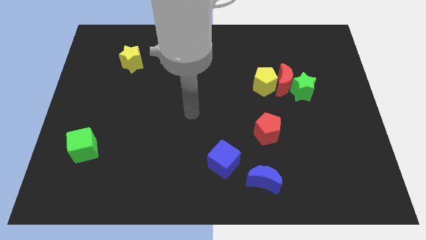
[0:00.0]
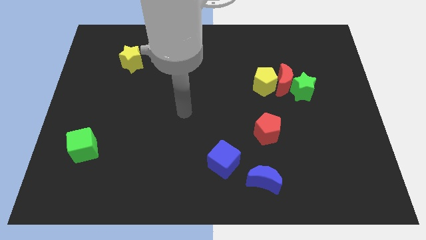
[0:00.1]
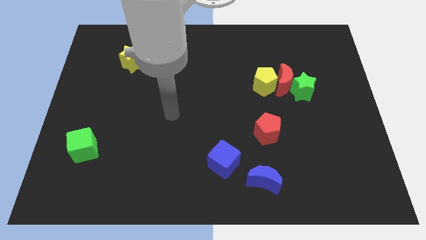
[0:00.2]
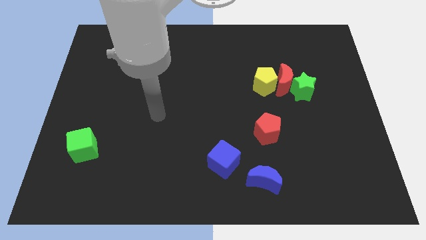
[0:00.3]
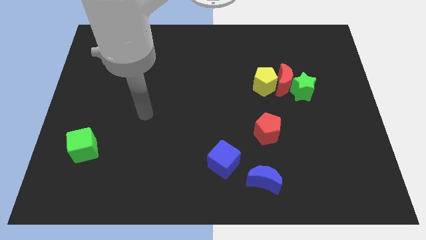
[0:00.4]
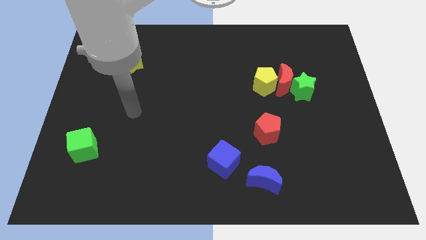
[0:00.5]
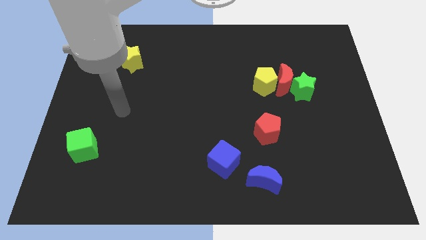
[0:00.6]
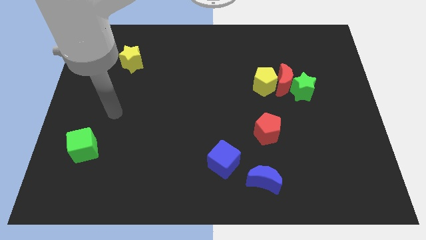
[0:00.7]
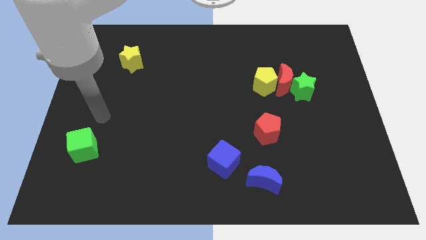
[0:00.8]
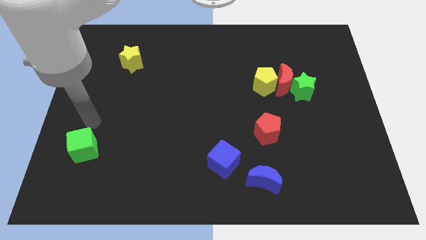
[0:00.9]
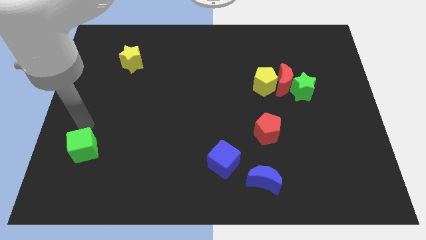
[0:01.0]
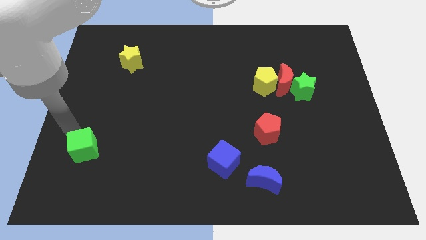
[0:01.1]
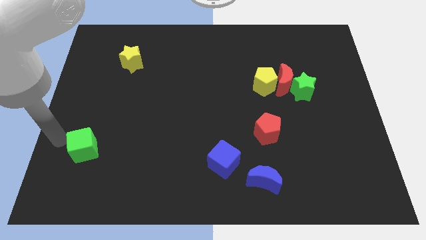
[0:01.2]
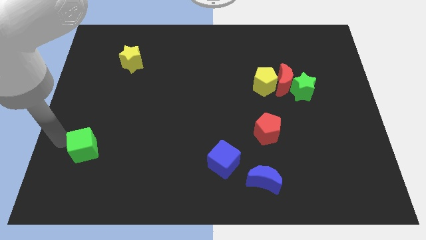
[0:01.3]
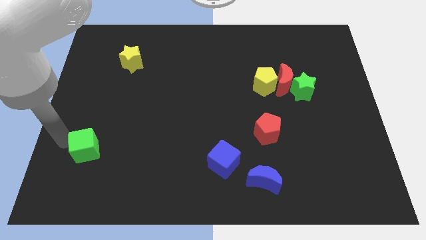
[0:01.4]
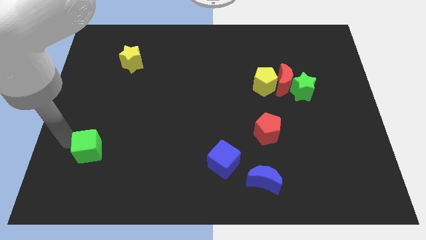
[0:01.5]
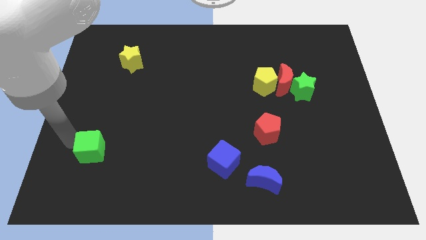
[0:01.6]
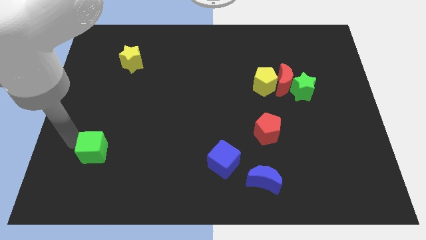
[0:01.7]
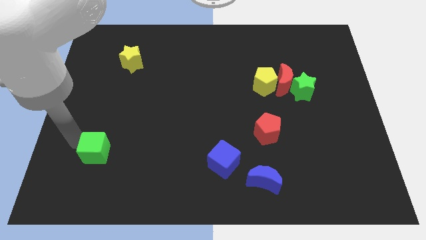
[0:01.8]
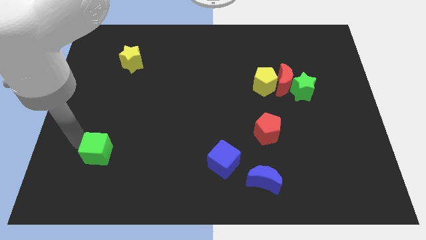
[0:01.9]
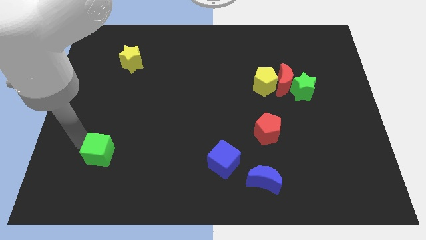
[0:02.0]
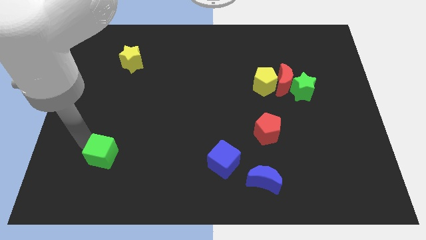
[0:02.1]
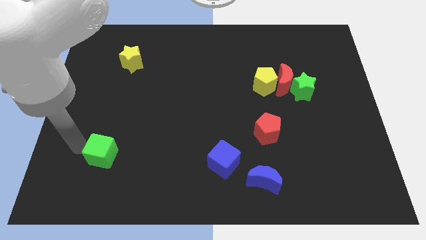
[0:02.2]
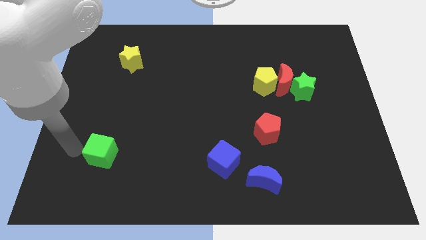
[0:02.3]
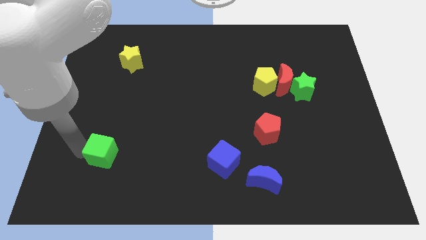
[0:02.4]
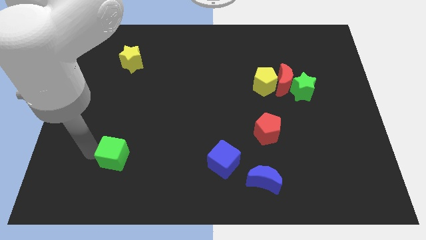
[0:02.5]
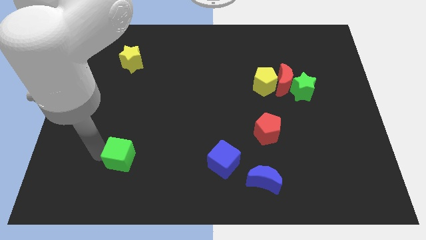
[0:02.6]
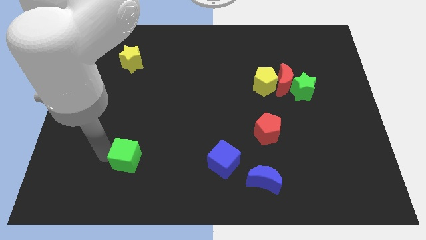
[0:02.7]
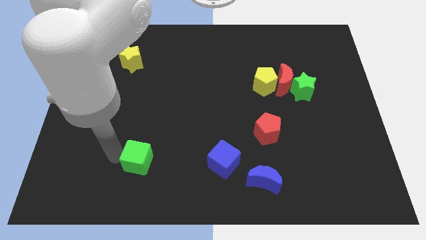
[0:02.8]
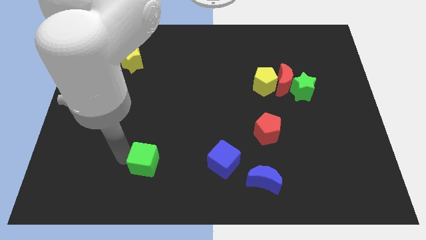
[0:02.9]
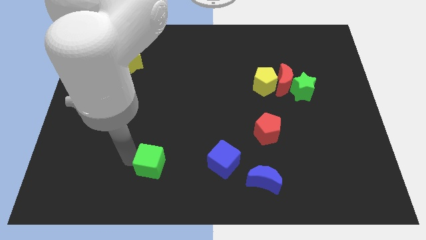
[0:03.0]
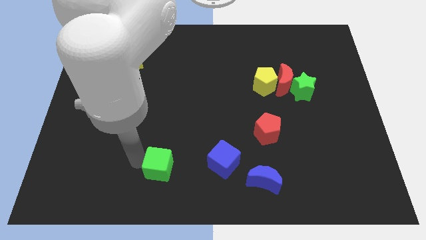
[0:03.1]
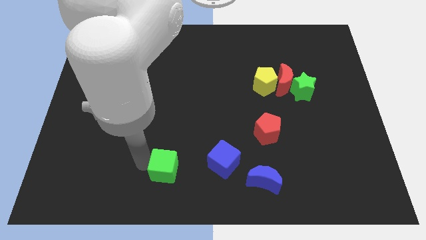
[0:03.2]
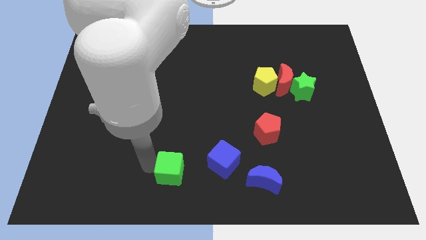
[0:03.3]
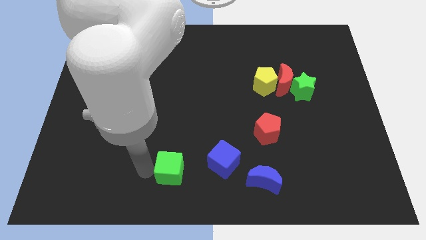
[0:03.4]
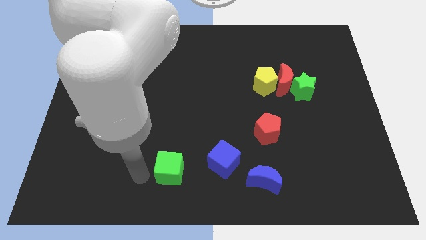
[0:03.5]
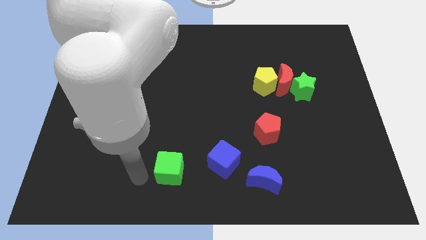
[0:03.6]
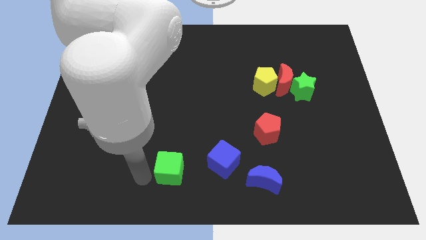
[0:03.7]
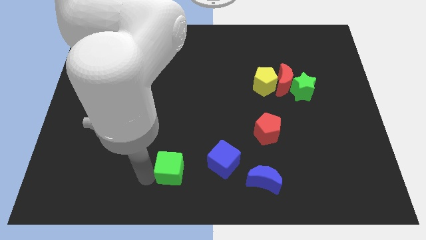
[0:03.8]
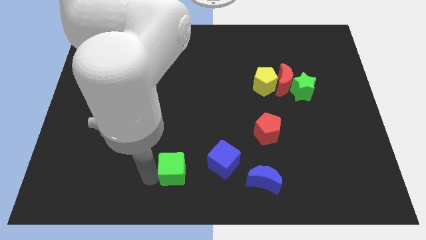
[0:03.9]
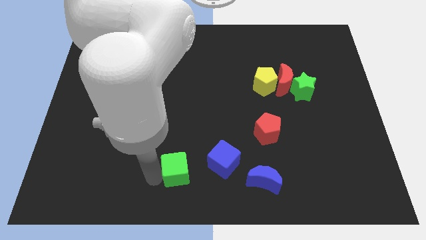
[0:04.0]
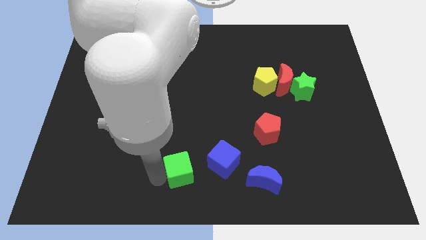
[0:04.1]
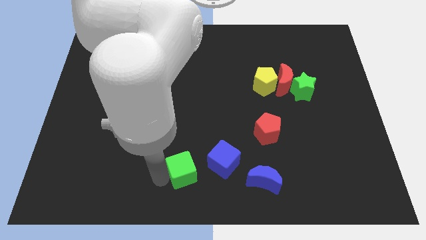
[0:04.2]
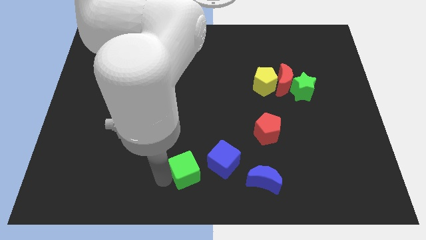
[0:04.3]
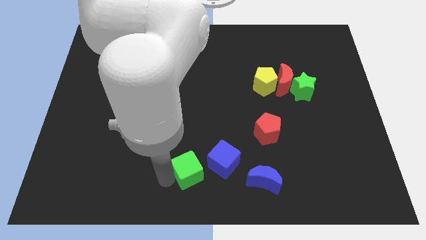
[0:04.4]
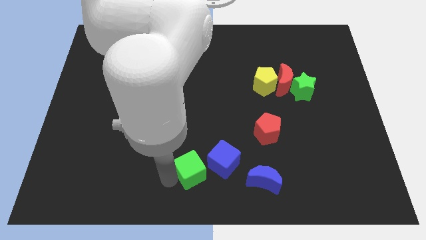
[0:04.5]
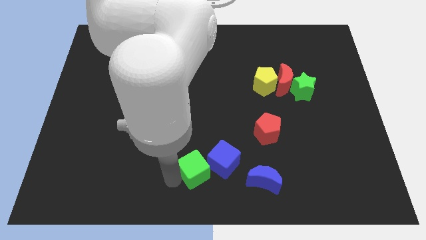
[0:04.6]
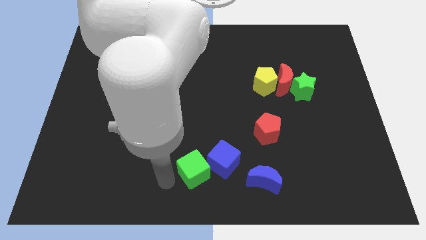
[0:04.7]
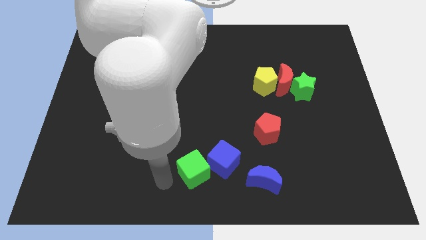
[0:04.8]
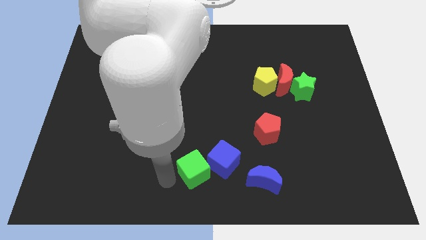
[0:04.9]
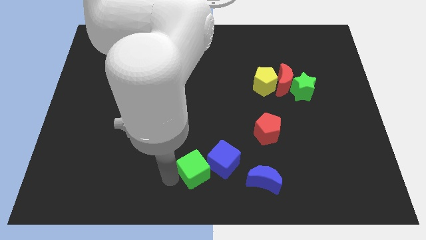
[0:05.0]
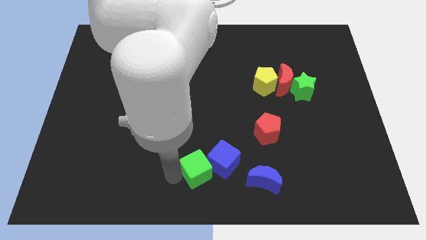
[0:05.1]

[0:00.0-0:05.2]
move the green cube to the blue cube

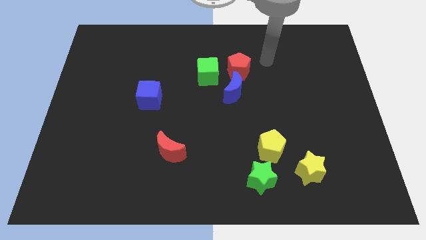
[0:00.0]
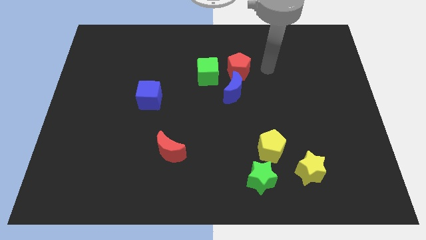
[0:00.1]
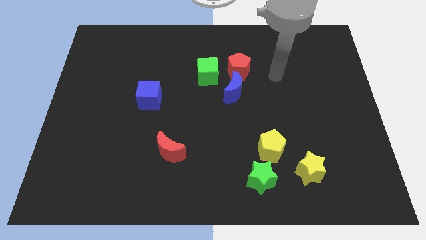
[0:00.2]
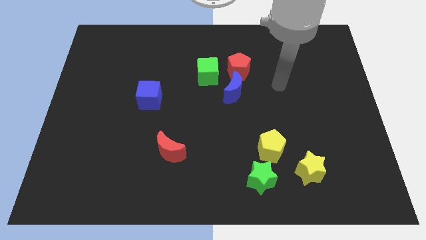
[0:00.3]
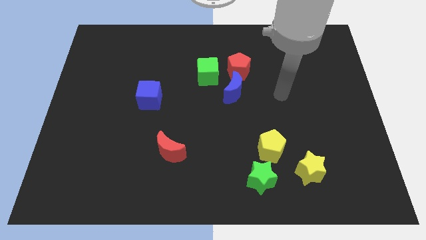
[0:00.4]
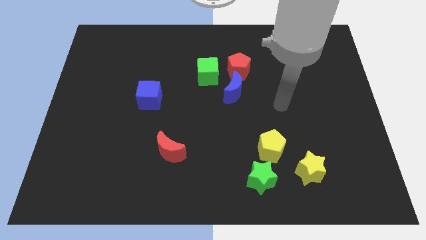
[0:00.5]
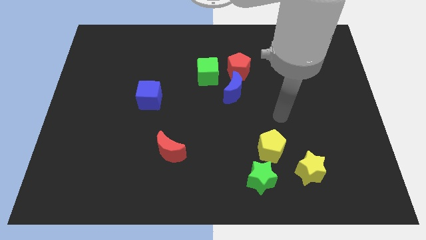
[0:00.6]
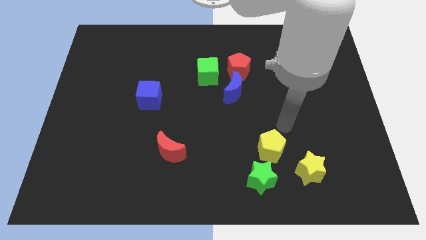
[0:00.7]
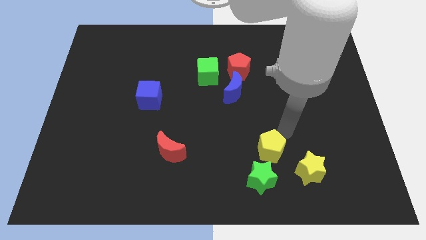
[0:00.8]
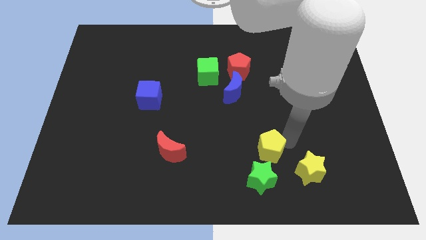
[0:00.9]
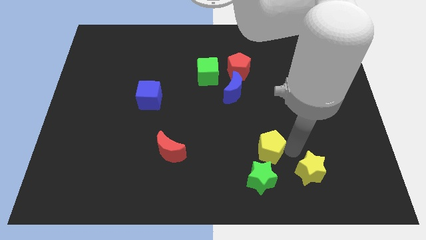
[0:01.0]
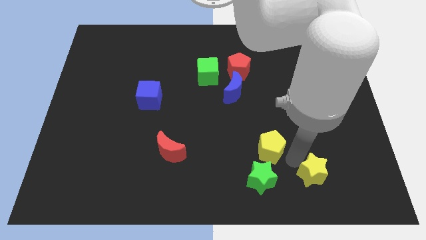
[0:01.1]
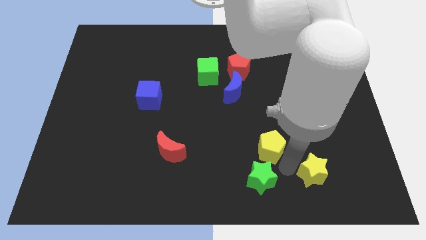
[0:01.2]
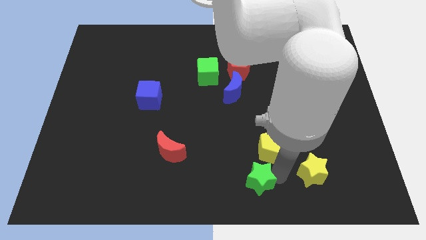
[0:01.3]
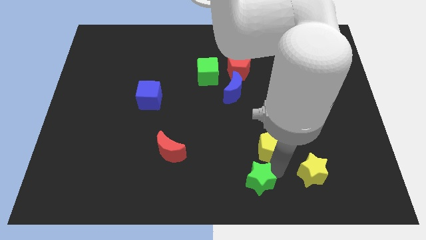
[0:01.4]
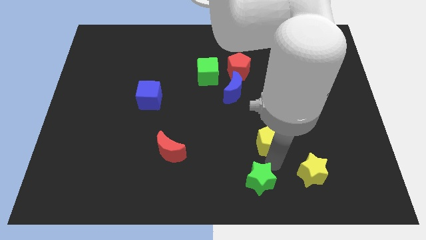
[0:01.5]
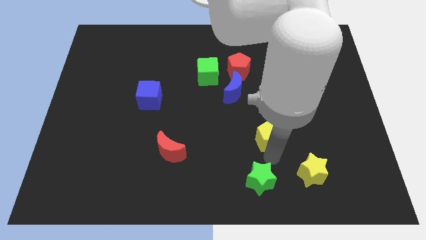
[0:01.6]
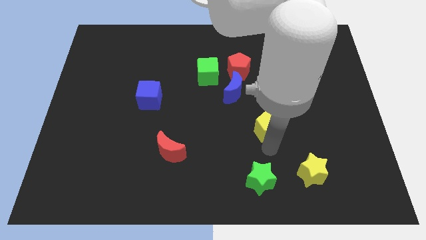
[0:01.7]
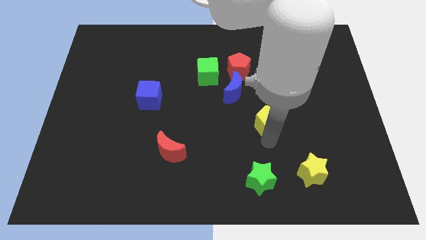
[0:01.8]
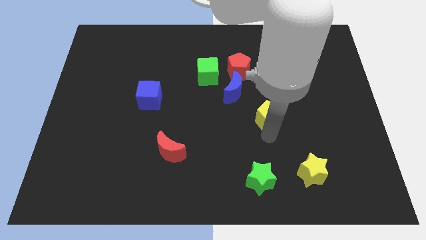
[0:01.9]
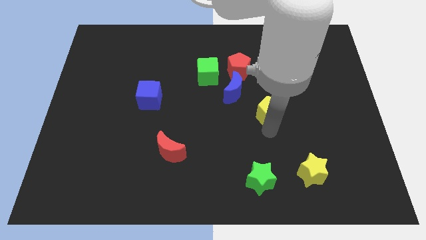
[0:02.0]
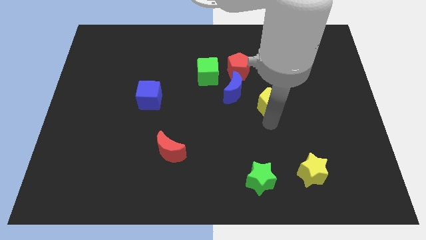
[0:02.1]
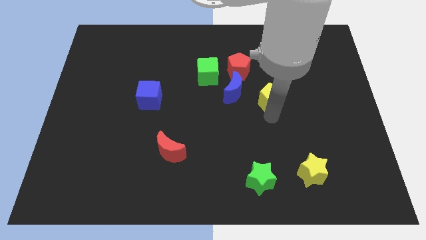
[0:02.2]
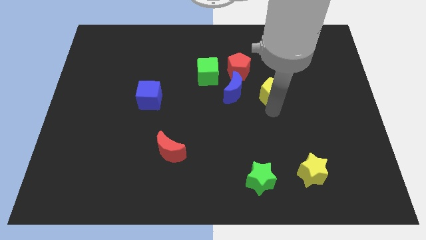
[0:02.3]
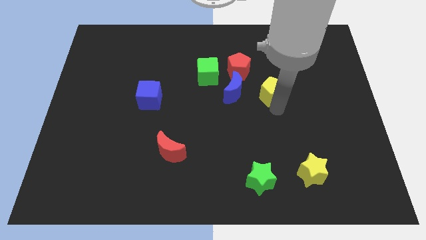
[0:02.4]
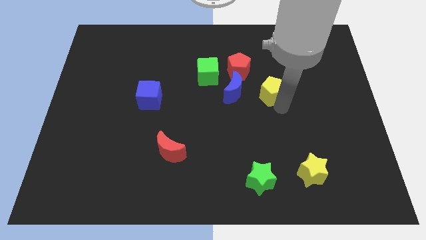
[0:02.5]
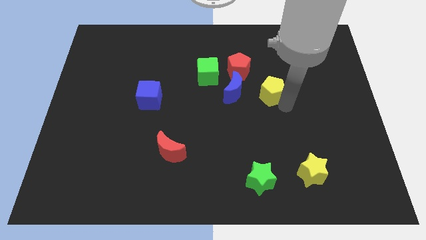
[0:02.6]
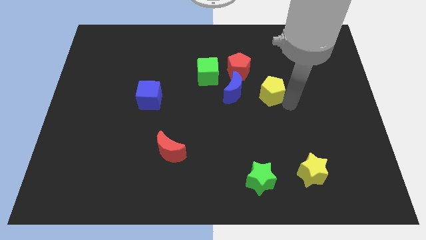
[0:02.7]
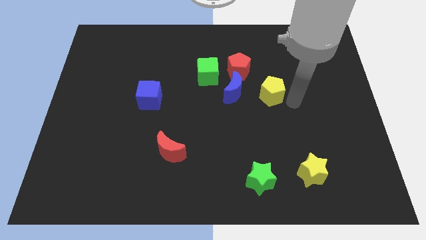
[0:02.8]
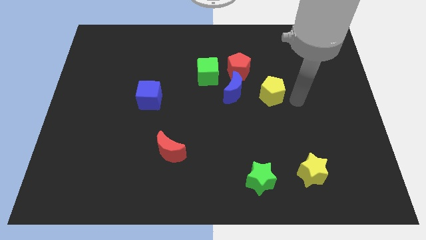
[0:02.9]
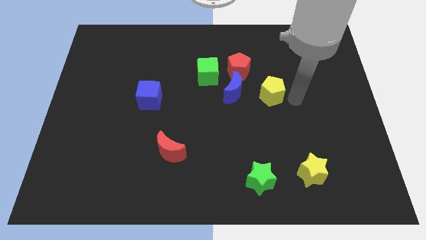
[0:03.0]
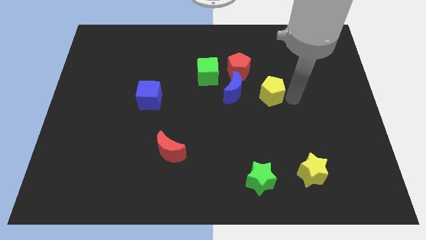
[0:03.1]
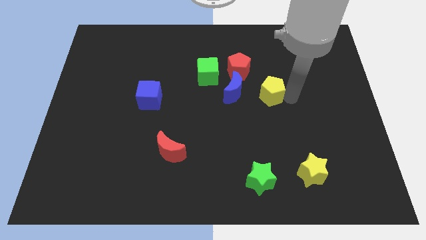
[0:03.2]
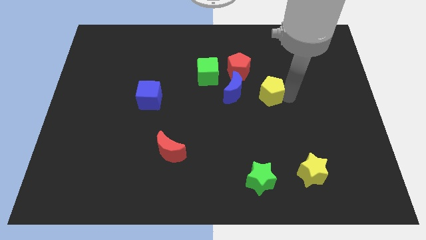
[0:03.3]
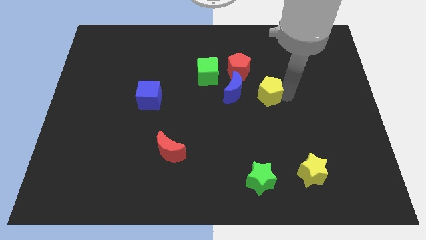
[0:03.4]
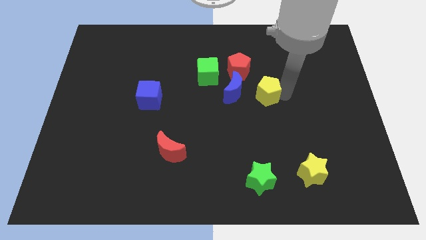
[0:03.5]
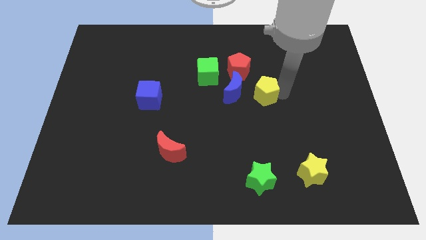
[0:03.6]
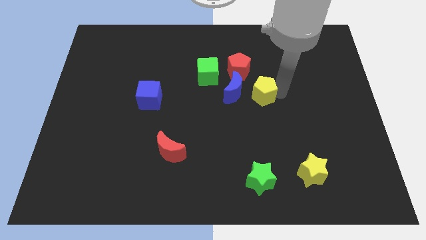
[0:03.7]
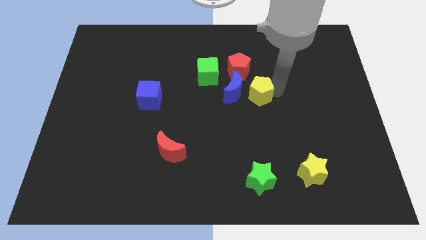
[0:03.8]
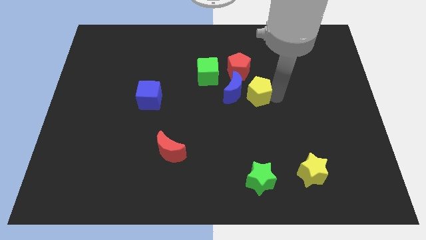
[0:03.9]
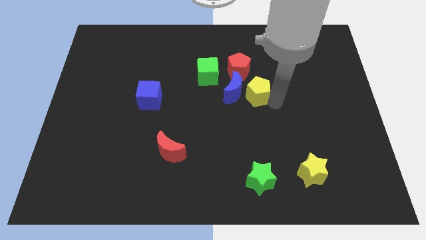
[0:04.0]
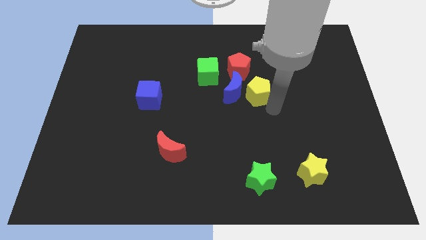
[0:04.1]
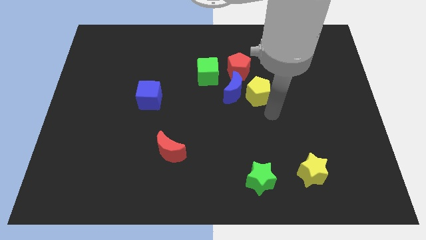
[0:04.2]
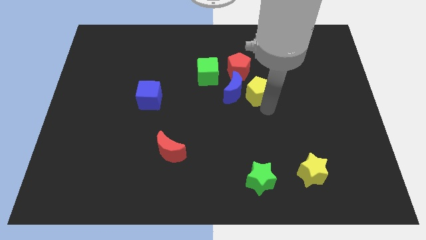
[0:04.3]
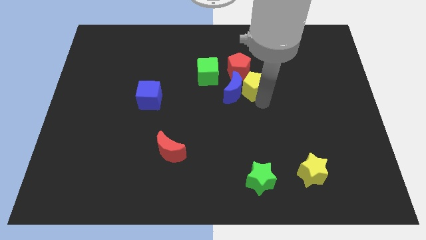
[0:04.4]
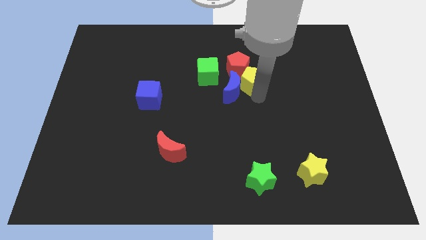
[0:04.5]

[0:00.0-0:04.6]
slide the yellow pentagon next to the red pentagon
